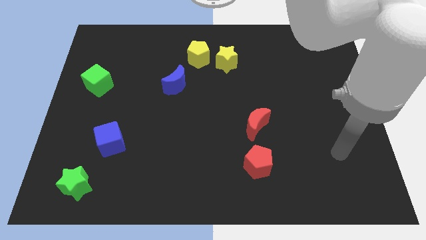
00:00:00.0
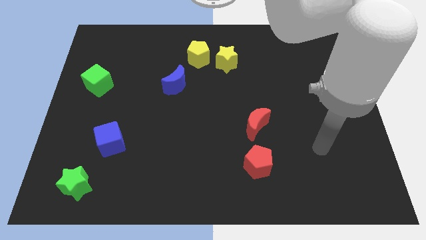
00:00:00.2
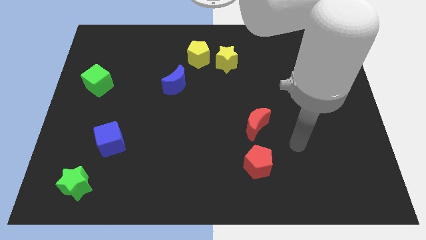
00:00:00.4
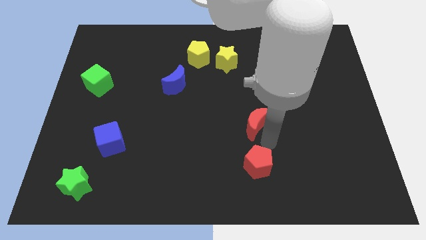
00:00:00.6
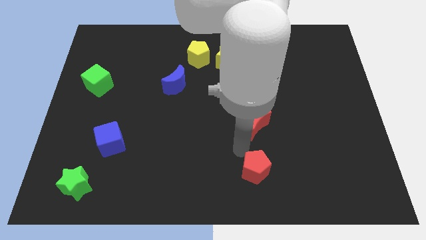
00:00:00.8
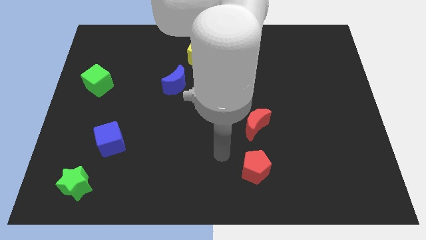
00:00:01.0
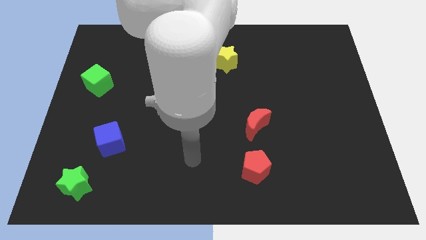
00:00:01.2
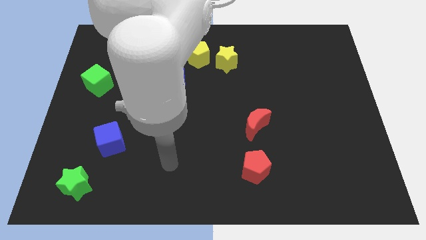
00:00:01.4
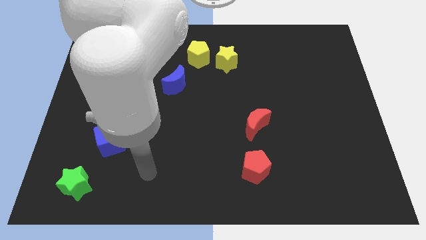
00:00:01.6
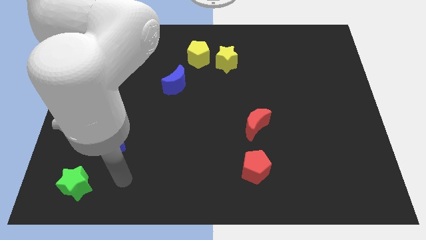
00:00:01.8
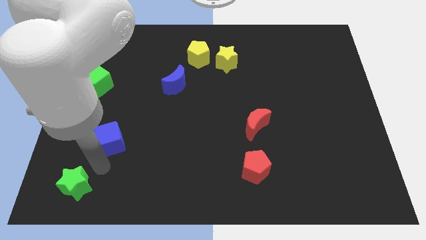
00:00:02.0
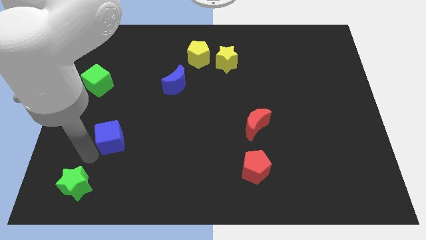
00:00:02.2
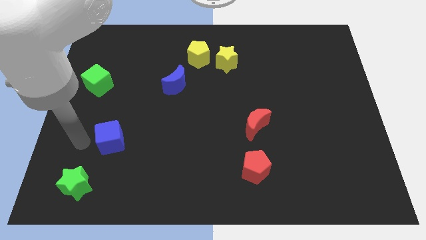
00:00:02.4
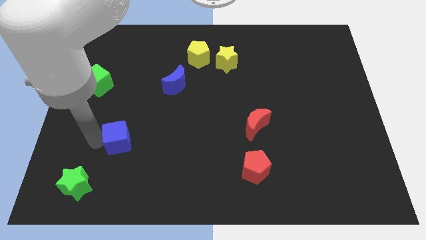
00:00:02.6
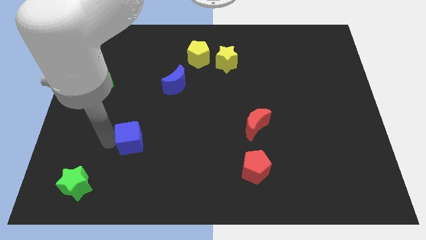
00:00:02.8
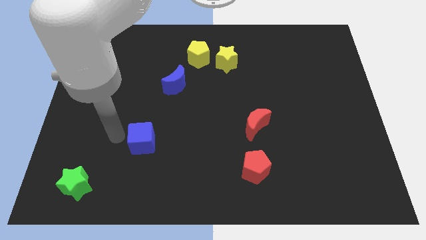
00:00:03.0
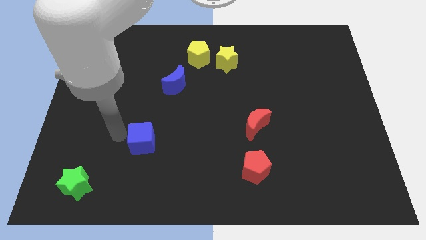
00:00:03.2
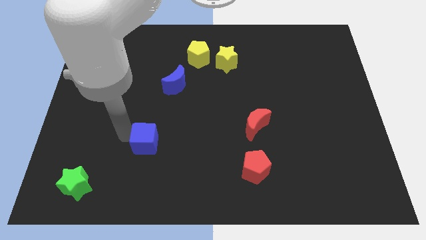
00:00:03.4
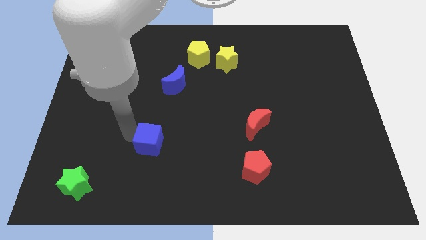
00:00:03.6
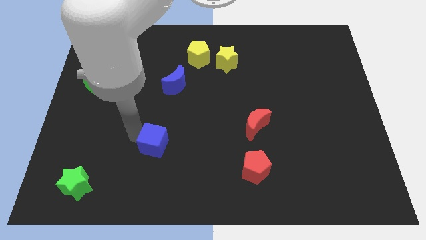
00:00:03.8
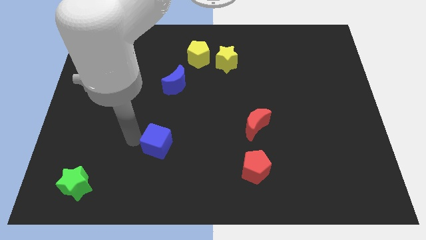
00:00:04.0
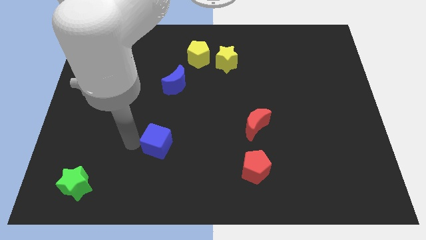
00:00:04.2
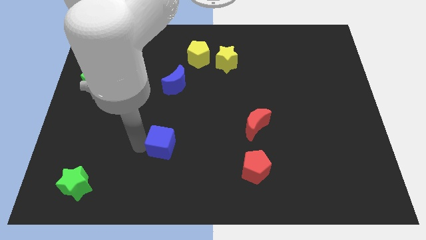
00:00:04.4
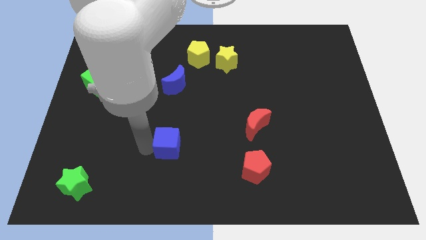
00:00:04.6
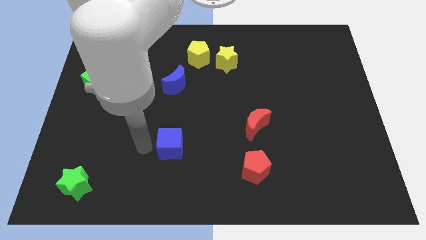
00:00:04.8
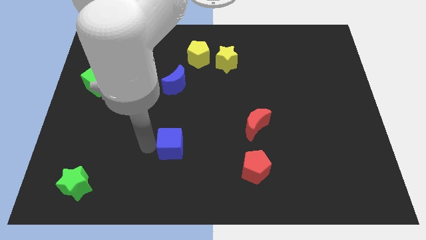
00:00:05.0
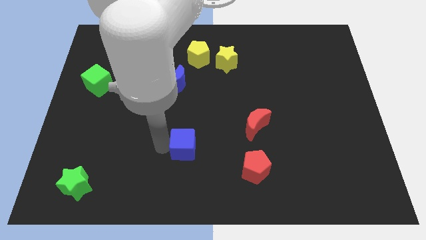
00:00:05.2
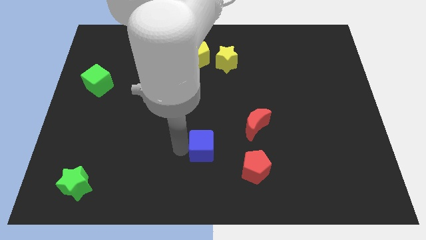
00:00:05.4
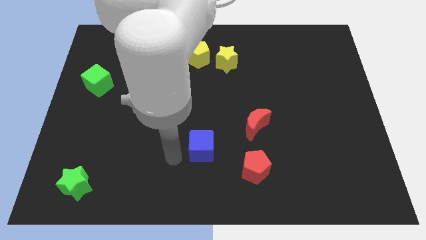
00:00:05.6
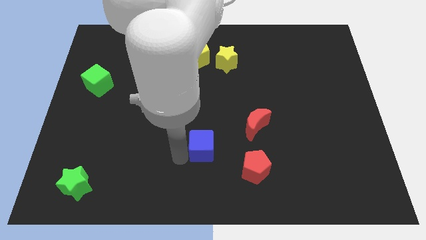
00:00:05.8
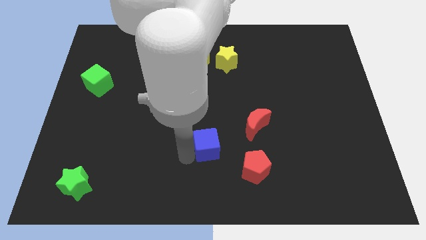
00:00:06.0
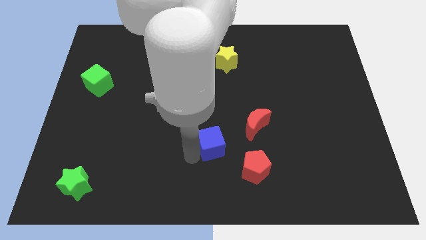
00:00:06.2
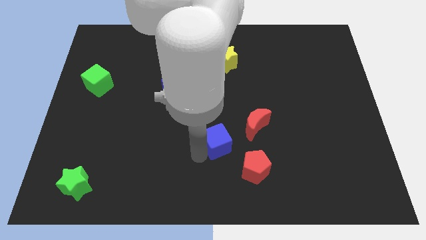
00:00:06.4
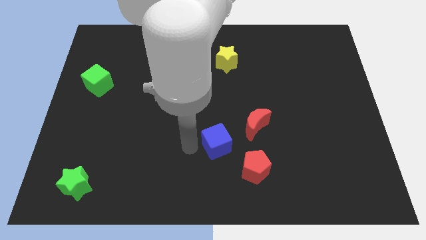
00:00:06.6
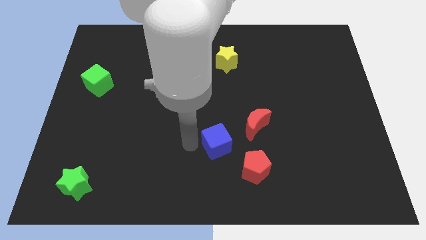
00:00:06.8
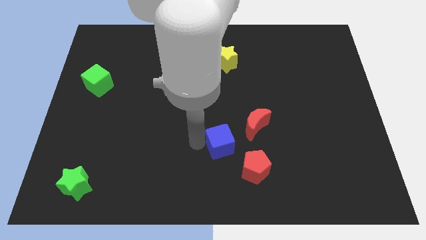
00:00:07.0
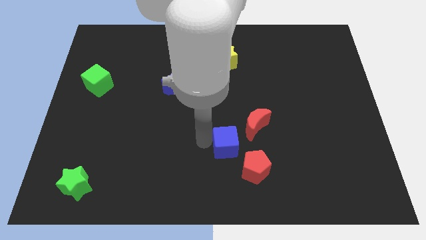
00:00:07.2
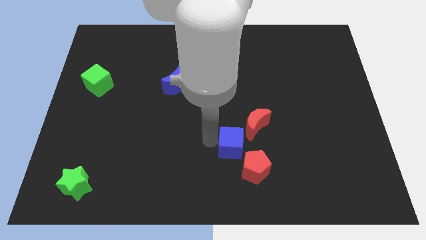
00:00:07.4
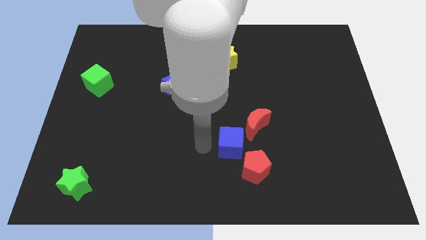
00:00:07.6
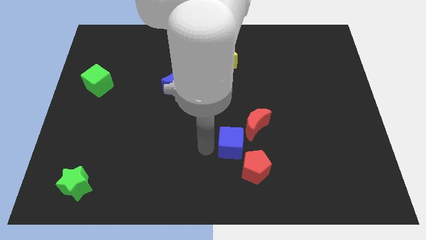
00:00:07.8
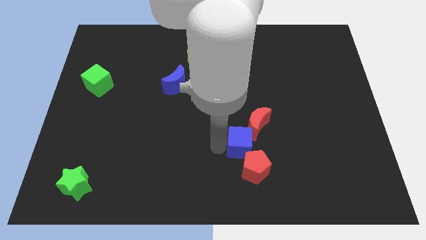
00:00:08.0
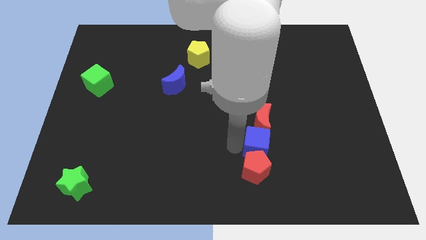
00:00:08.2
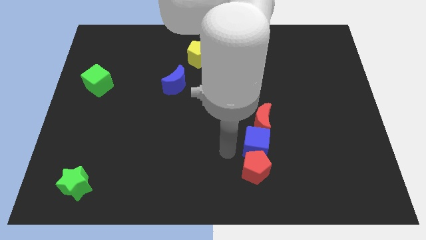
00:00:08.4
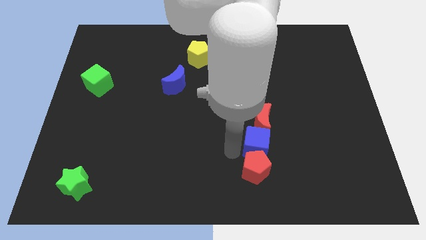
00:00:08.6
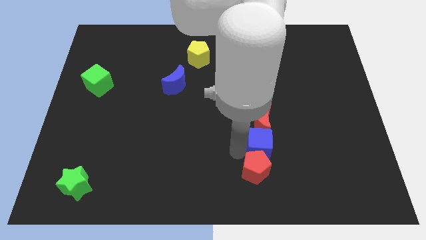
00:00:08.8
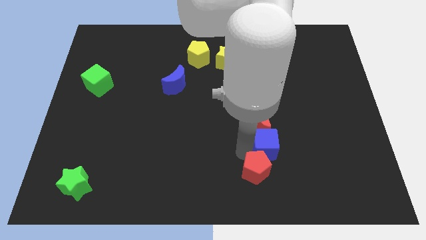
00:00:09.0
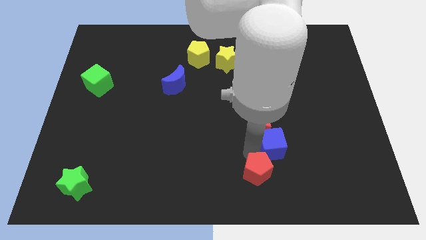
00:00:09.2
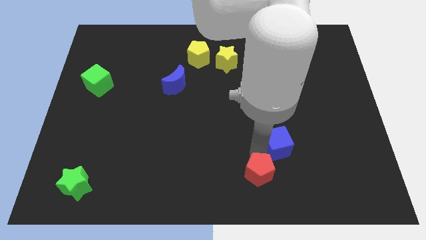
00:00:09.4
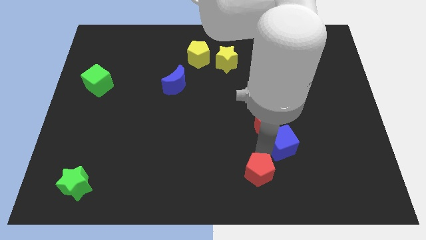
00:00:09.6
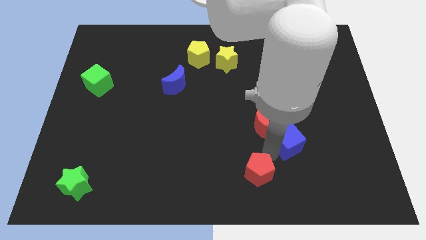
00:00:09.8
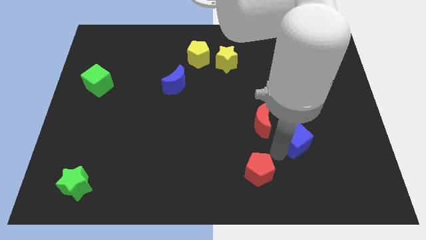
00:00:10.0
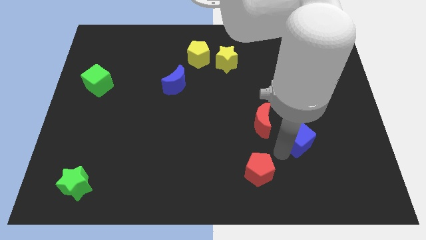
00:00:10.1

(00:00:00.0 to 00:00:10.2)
push the blue cube right of the red moon

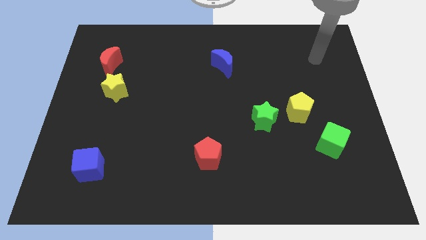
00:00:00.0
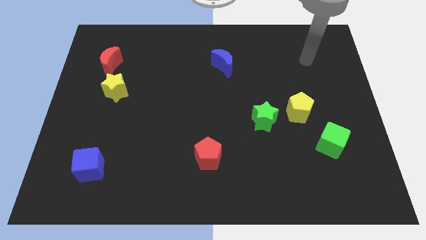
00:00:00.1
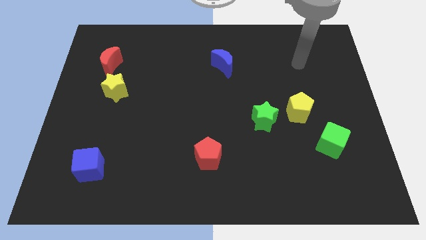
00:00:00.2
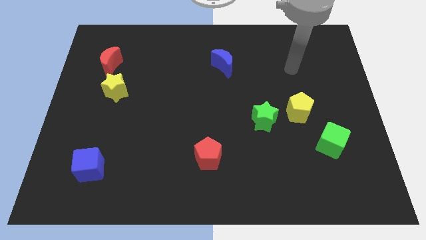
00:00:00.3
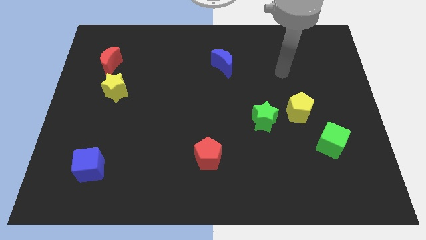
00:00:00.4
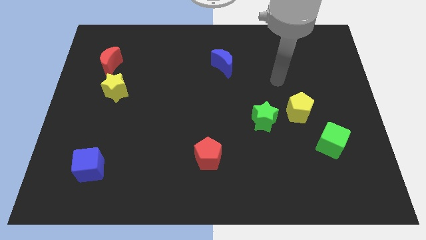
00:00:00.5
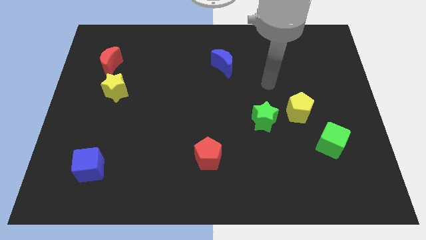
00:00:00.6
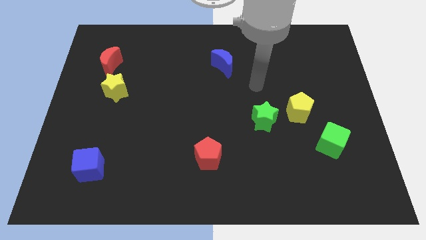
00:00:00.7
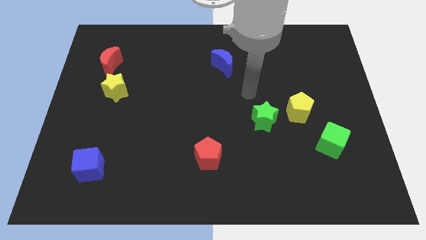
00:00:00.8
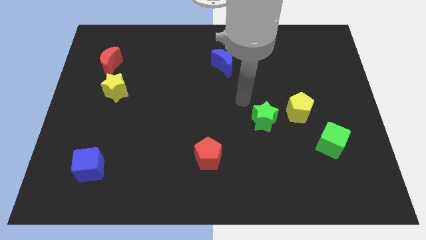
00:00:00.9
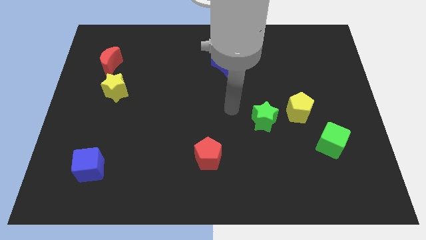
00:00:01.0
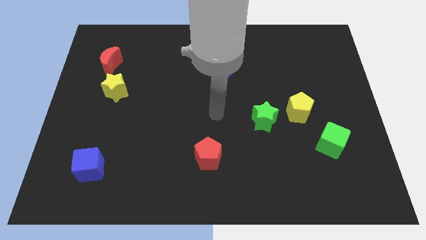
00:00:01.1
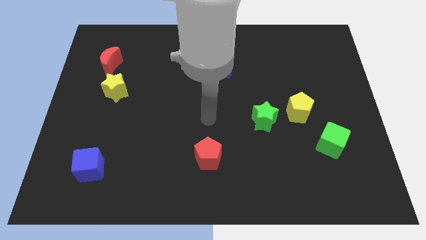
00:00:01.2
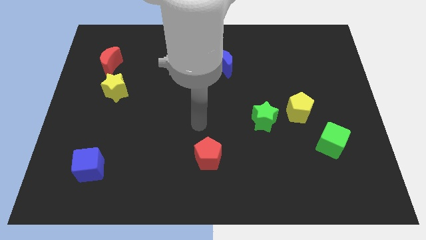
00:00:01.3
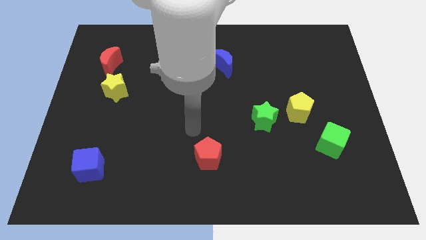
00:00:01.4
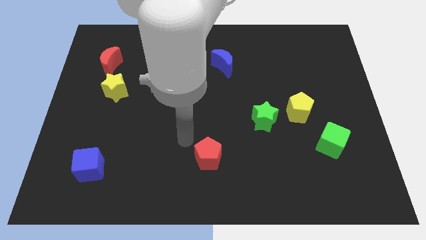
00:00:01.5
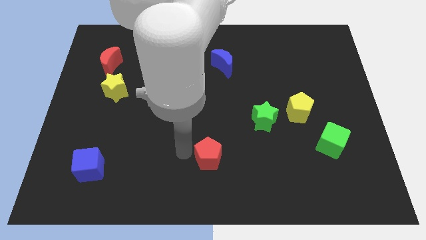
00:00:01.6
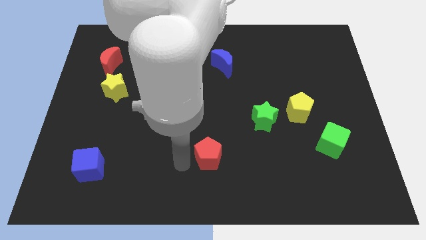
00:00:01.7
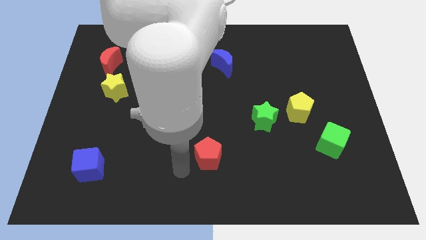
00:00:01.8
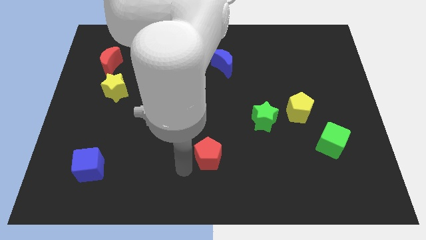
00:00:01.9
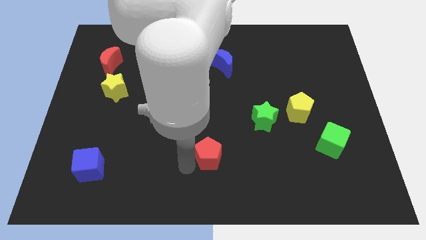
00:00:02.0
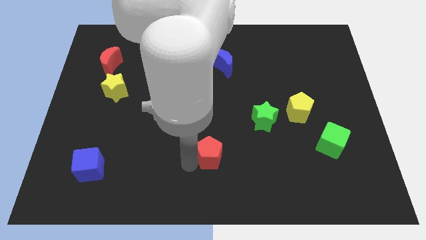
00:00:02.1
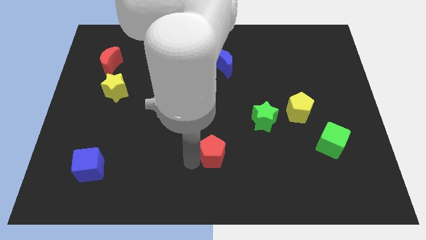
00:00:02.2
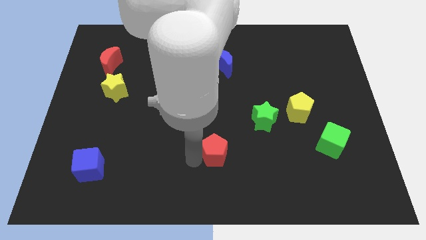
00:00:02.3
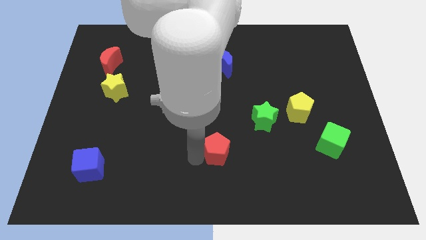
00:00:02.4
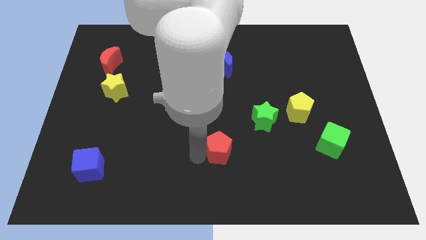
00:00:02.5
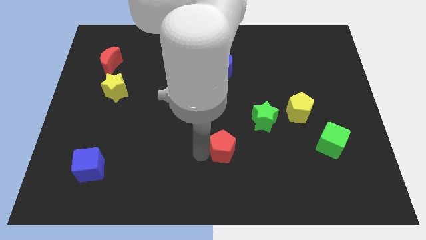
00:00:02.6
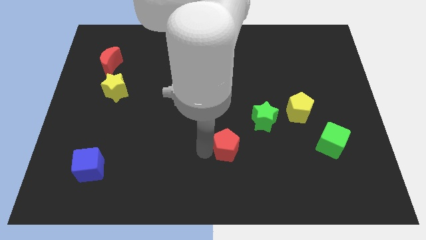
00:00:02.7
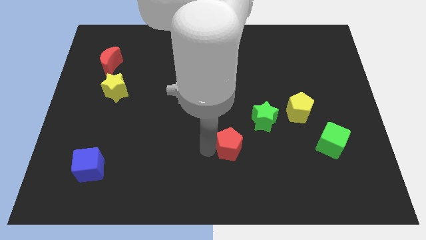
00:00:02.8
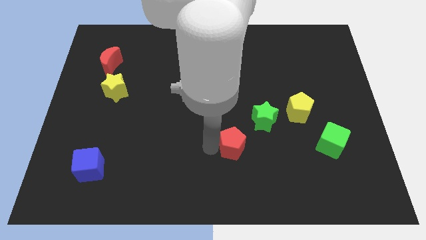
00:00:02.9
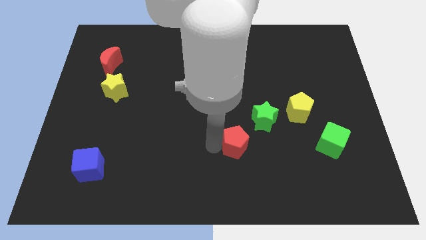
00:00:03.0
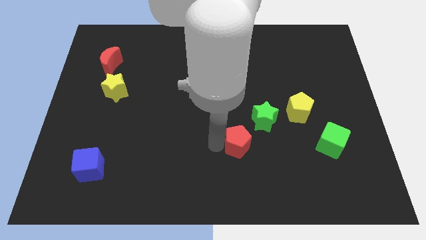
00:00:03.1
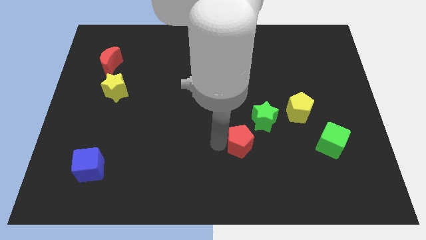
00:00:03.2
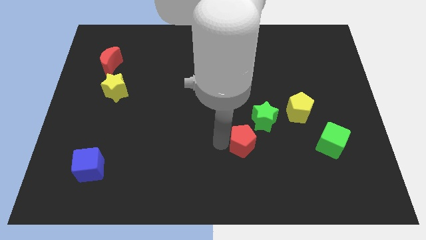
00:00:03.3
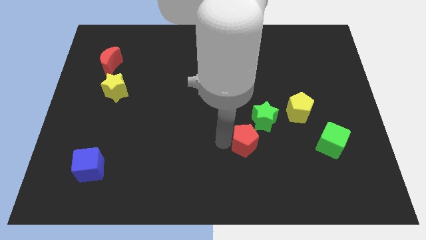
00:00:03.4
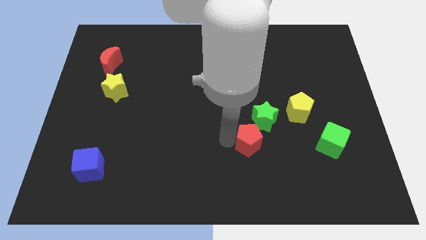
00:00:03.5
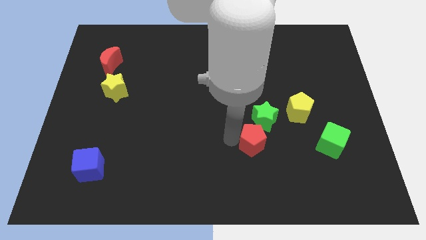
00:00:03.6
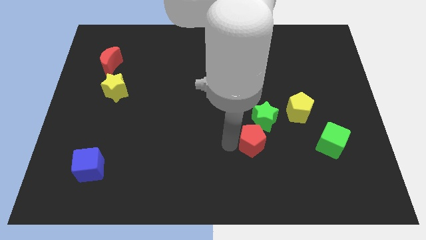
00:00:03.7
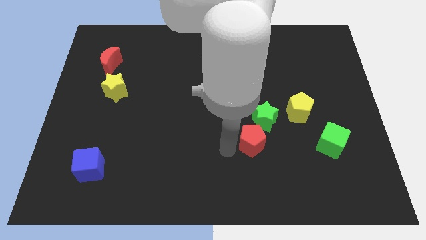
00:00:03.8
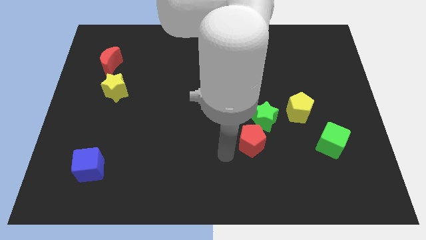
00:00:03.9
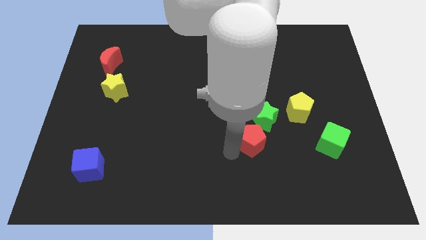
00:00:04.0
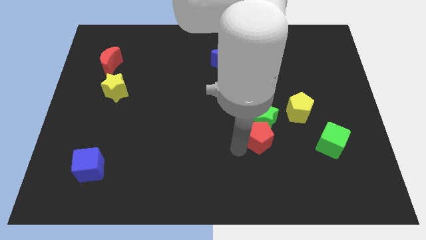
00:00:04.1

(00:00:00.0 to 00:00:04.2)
move the red pentagon to the bottom left side of the yellow pentagon
